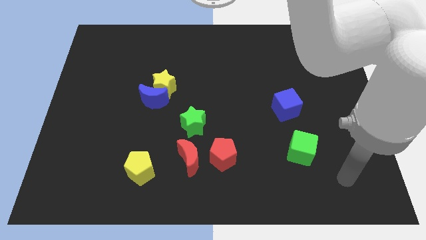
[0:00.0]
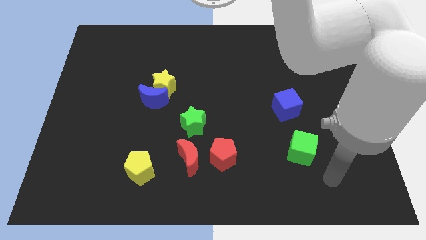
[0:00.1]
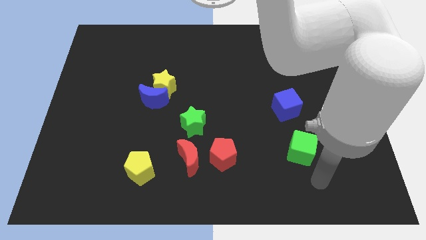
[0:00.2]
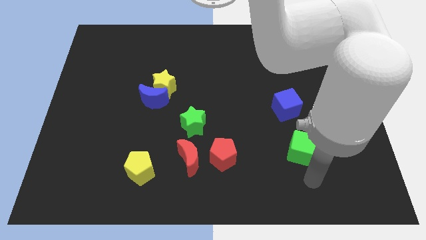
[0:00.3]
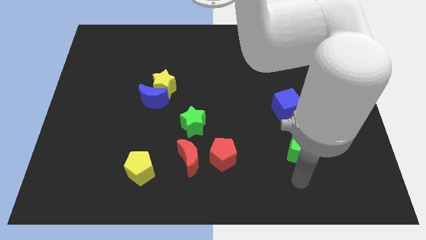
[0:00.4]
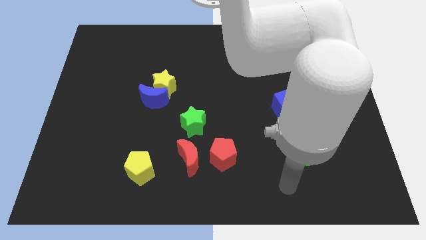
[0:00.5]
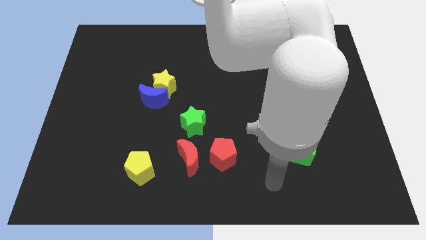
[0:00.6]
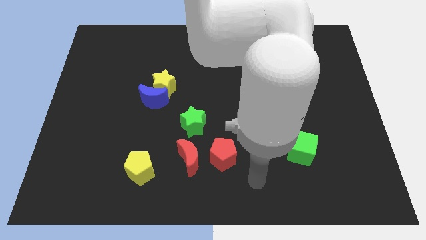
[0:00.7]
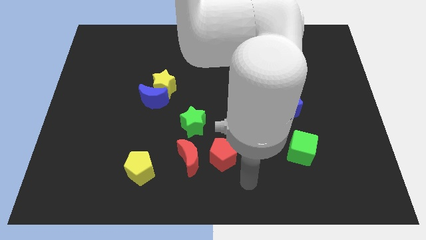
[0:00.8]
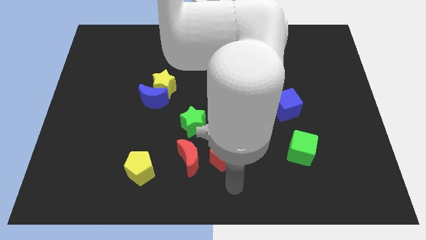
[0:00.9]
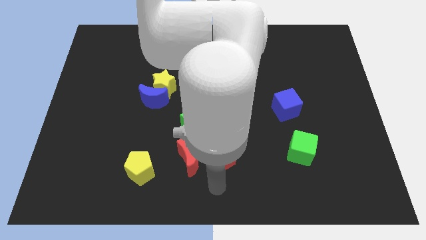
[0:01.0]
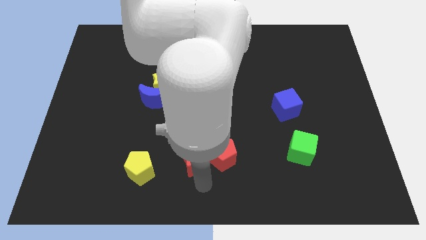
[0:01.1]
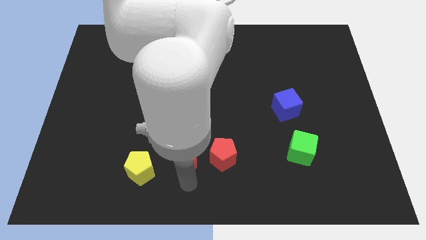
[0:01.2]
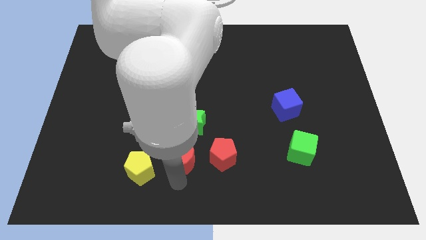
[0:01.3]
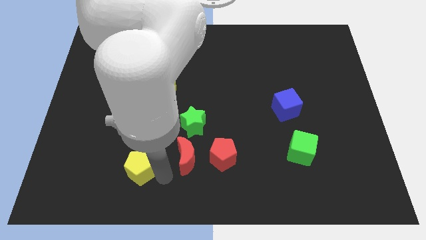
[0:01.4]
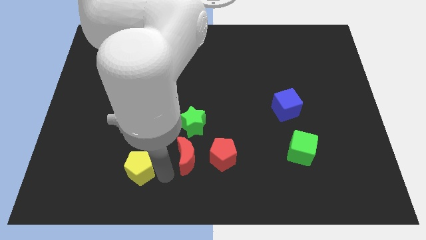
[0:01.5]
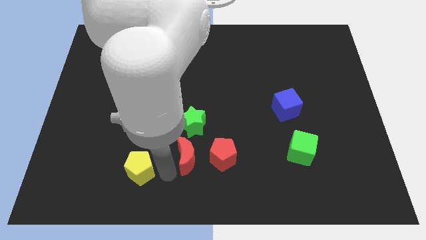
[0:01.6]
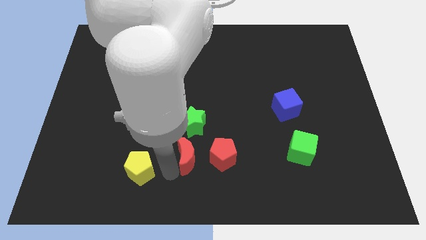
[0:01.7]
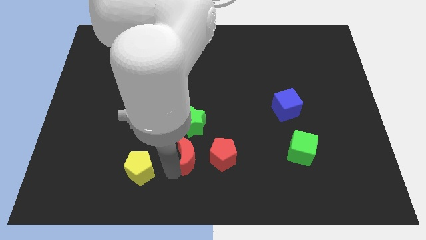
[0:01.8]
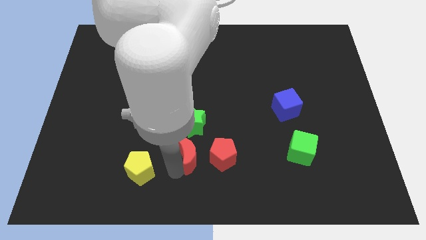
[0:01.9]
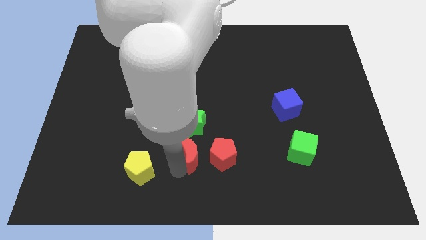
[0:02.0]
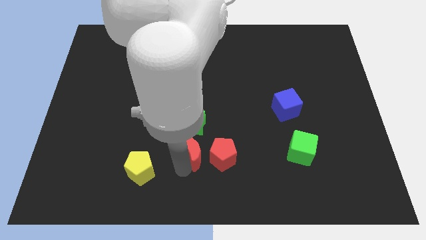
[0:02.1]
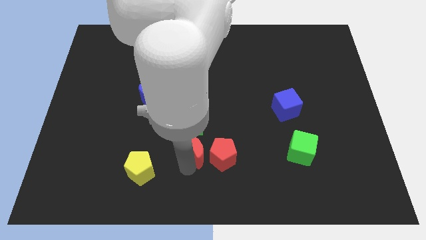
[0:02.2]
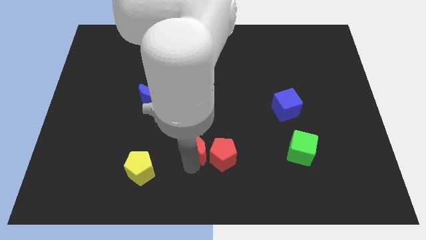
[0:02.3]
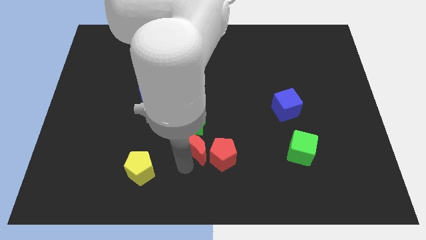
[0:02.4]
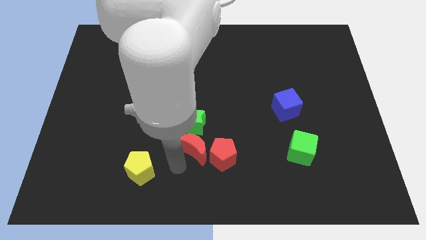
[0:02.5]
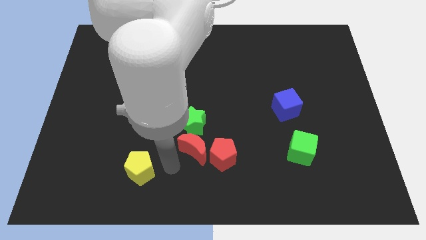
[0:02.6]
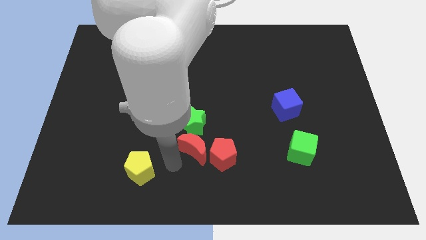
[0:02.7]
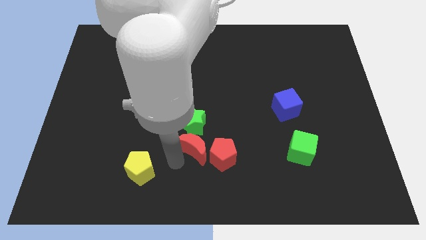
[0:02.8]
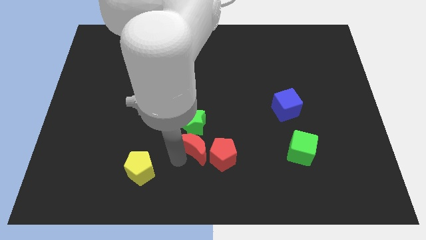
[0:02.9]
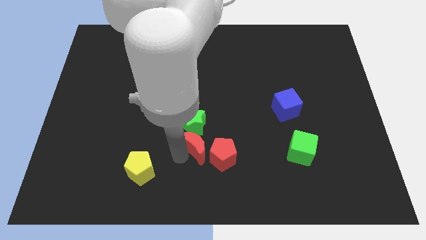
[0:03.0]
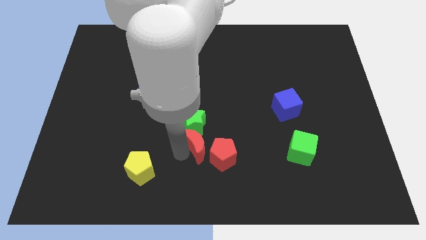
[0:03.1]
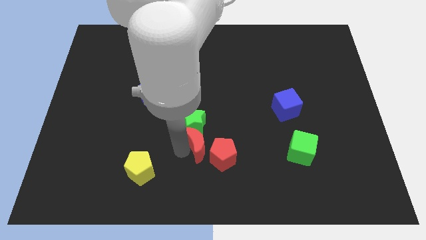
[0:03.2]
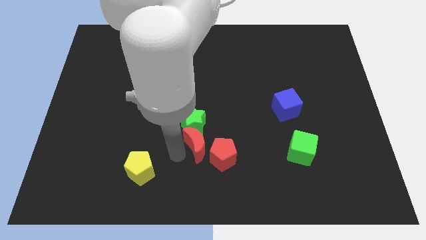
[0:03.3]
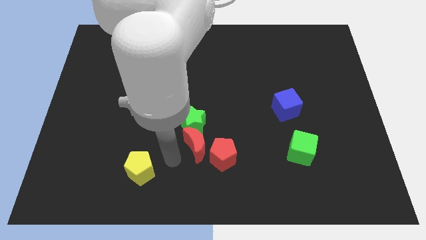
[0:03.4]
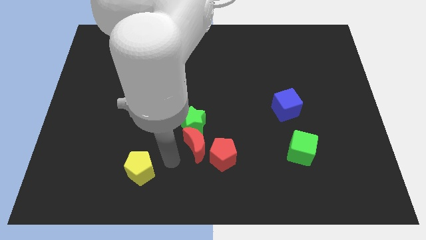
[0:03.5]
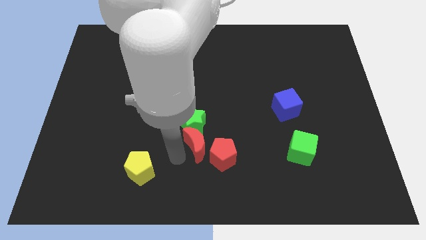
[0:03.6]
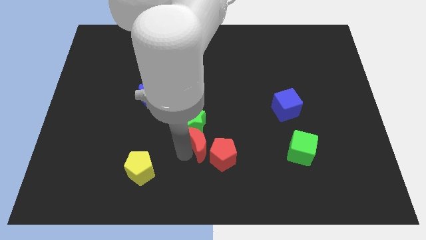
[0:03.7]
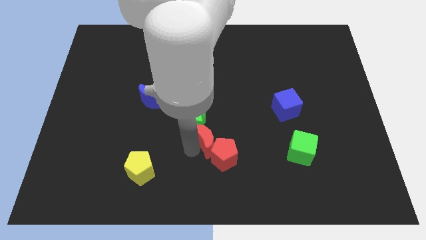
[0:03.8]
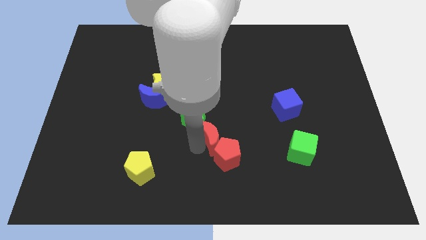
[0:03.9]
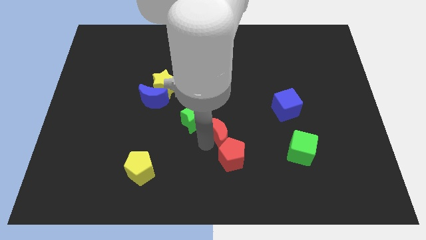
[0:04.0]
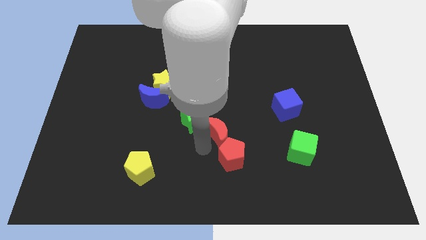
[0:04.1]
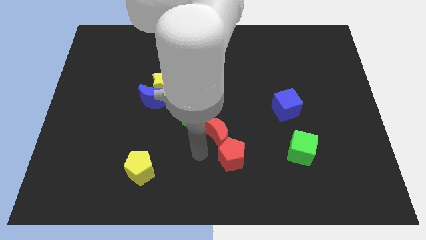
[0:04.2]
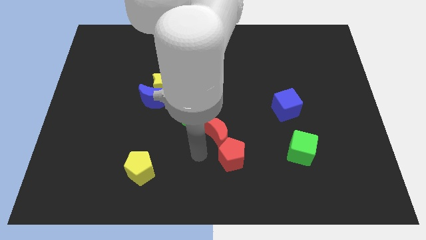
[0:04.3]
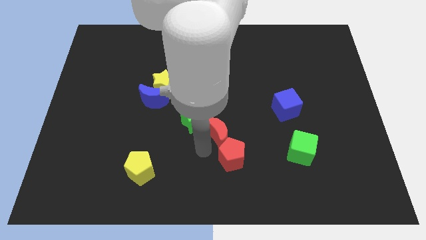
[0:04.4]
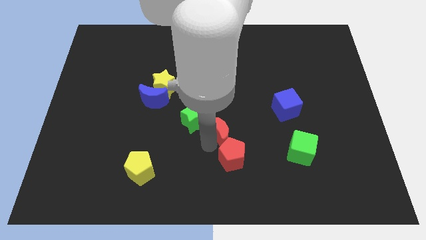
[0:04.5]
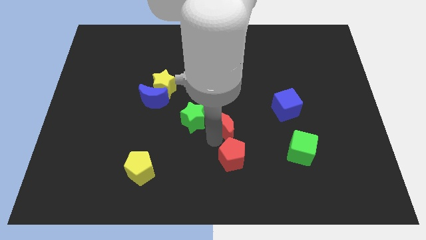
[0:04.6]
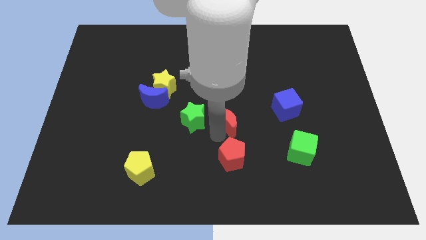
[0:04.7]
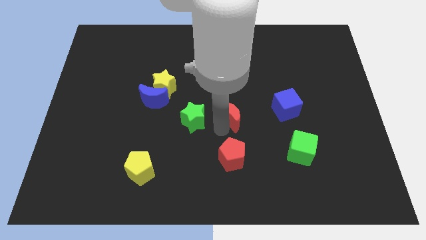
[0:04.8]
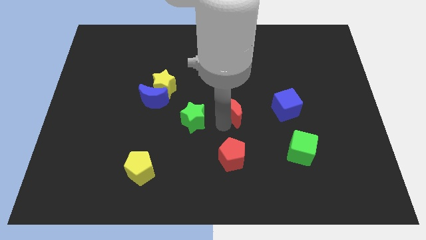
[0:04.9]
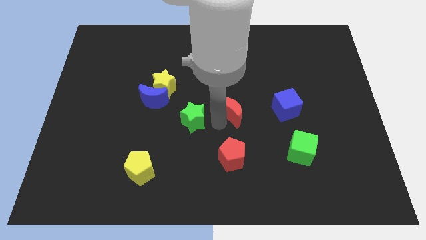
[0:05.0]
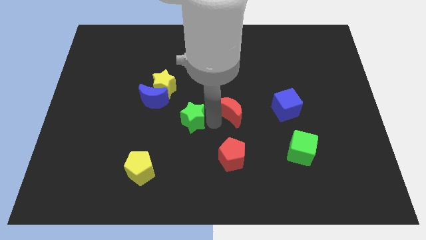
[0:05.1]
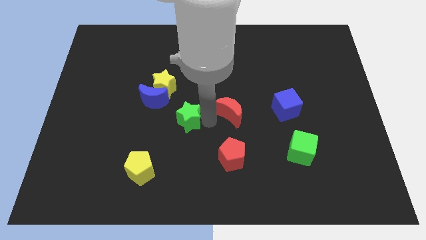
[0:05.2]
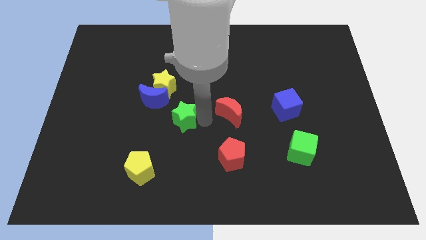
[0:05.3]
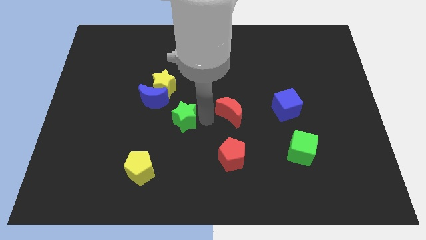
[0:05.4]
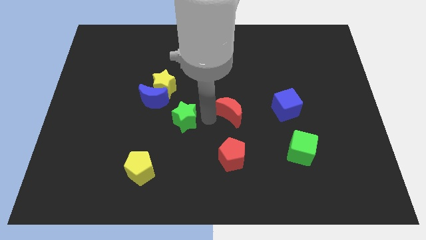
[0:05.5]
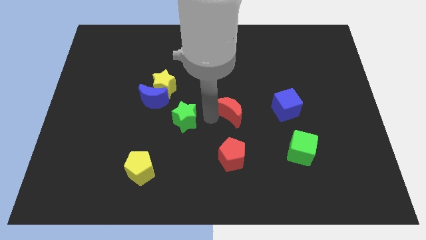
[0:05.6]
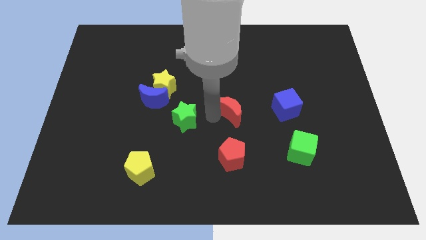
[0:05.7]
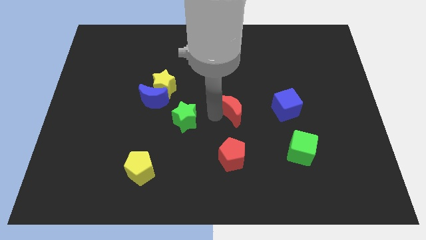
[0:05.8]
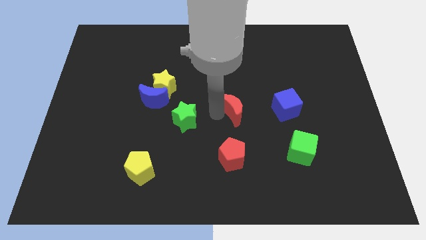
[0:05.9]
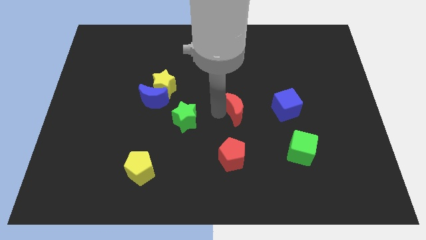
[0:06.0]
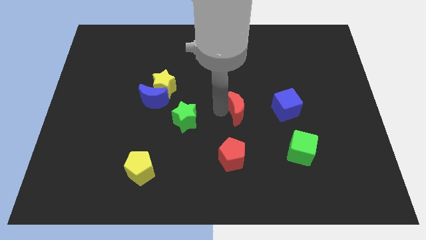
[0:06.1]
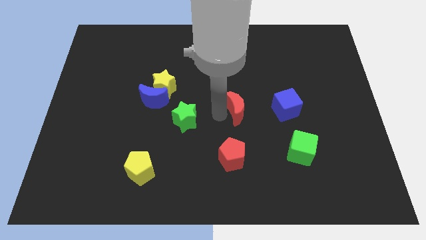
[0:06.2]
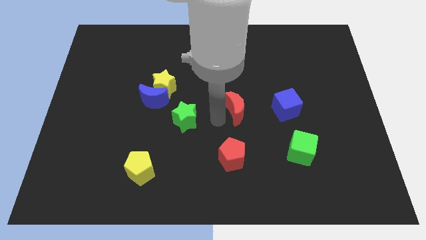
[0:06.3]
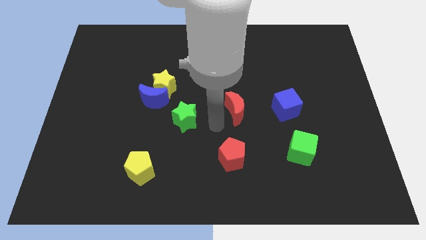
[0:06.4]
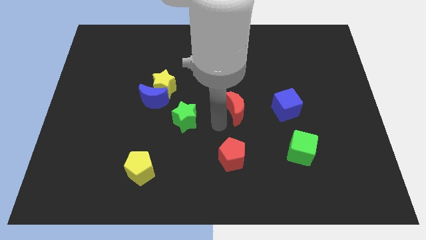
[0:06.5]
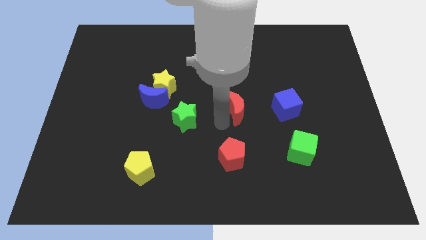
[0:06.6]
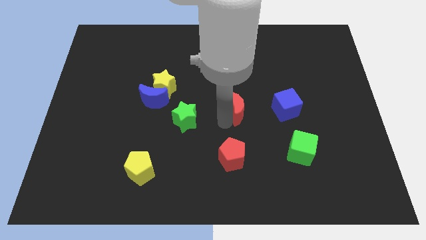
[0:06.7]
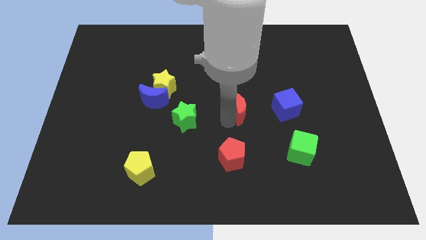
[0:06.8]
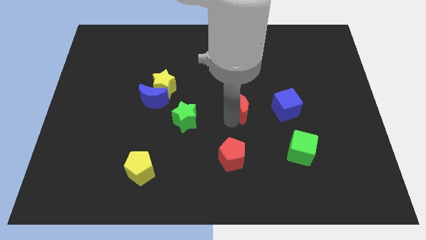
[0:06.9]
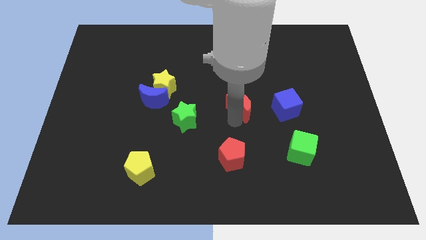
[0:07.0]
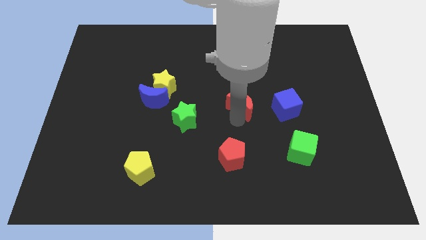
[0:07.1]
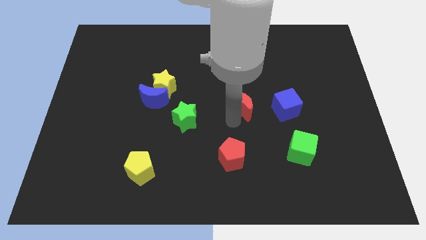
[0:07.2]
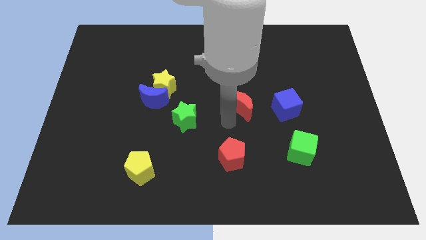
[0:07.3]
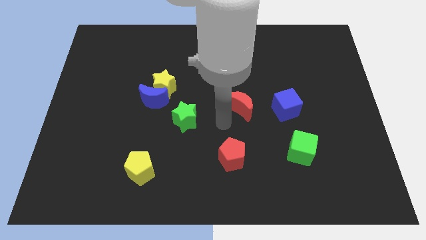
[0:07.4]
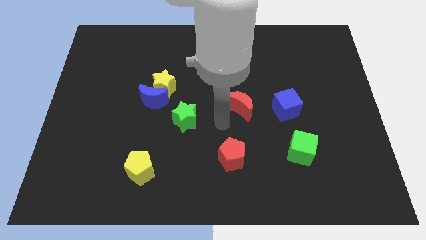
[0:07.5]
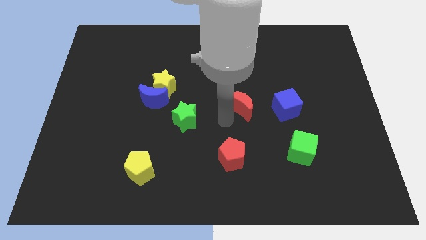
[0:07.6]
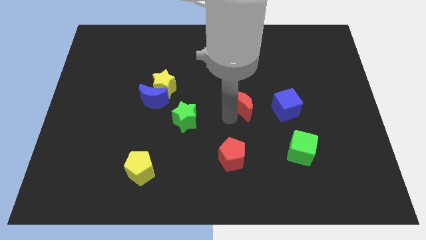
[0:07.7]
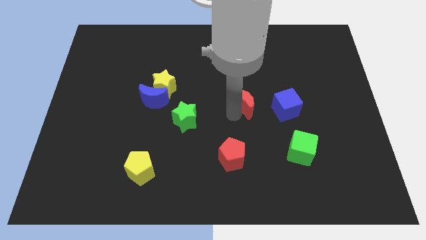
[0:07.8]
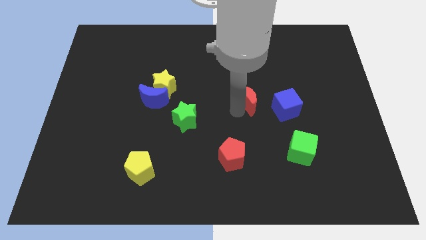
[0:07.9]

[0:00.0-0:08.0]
move the red moon diagonally up and to the right
